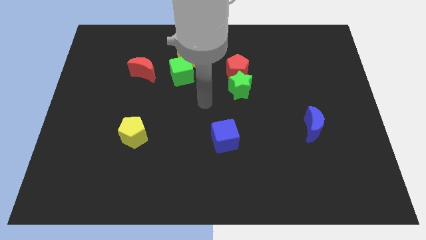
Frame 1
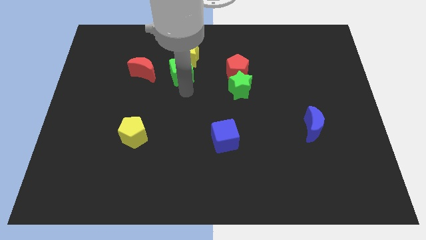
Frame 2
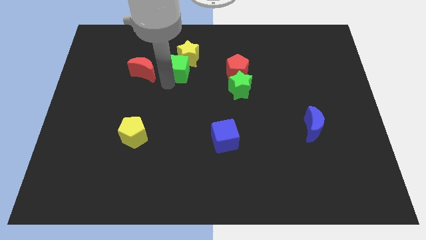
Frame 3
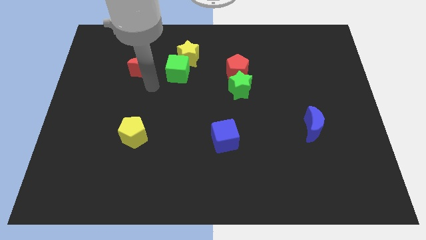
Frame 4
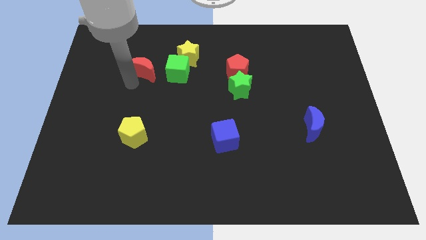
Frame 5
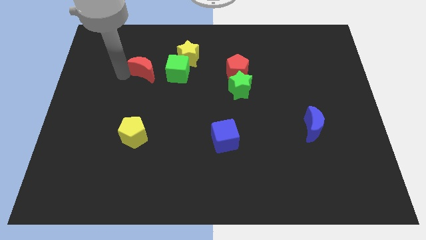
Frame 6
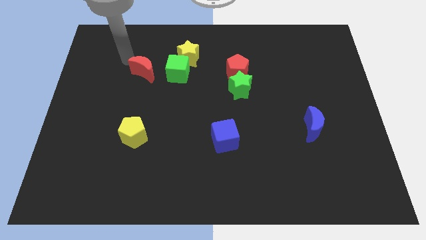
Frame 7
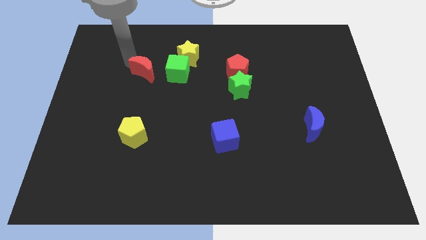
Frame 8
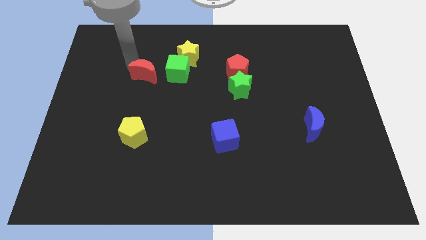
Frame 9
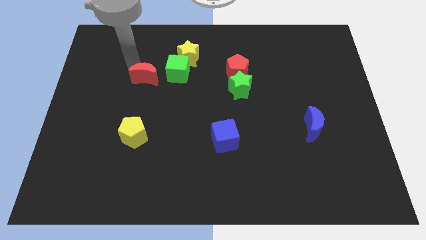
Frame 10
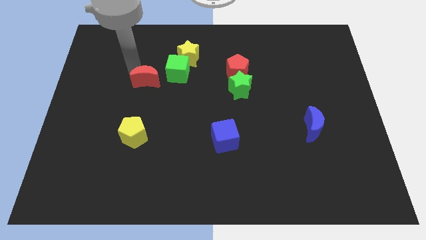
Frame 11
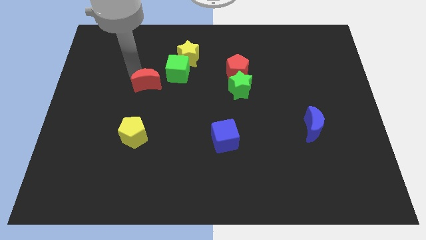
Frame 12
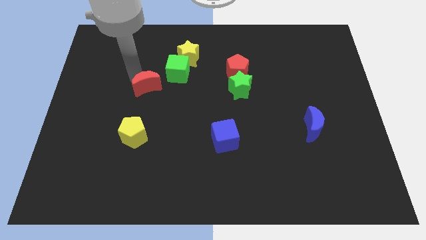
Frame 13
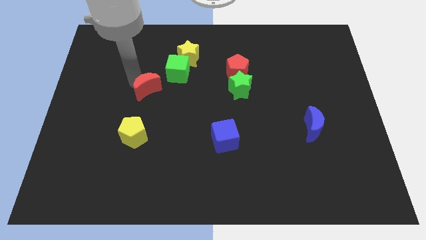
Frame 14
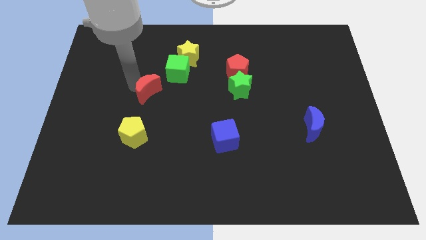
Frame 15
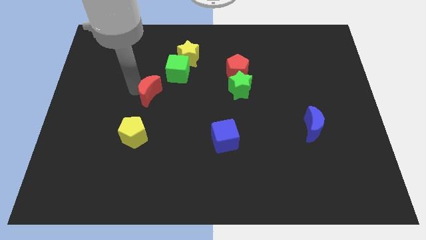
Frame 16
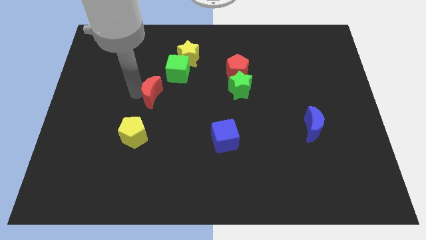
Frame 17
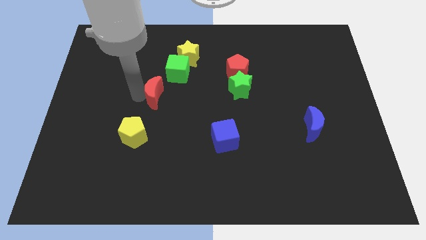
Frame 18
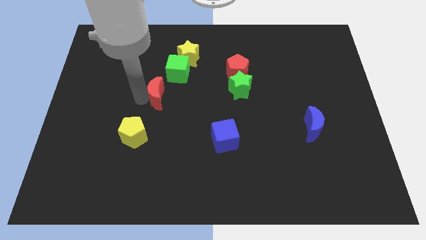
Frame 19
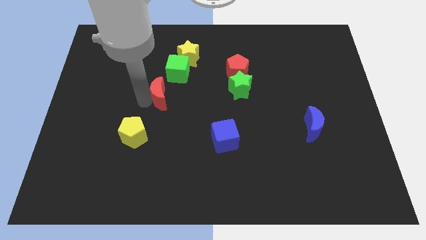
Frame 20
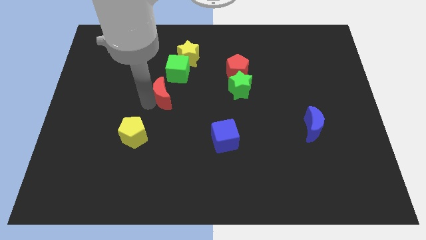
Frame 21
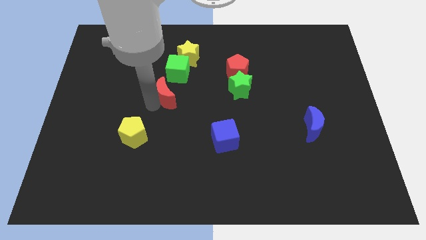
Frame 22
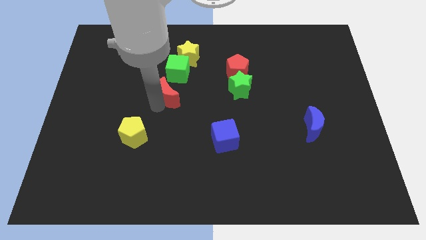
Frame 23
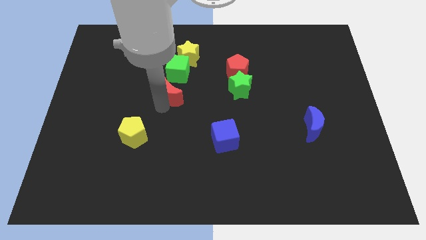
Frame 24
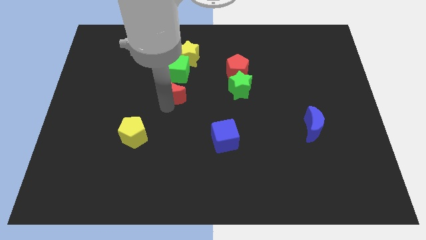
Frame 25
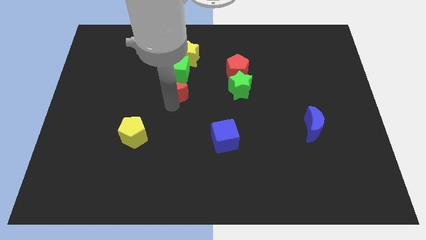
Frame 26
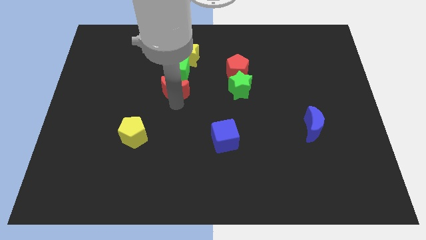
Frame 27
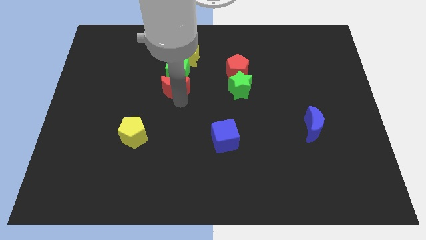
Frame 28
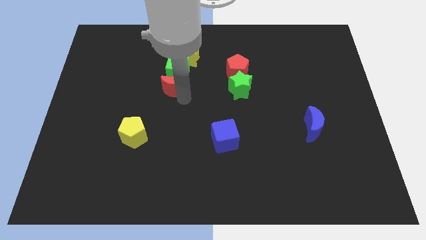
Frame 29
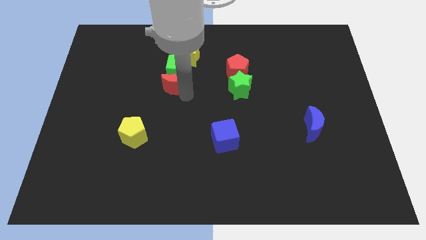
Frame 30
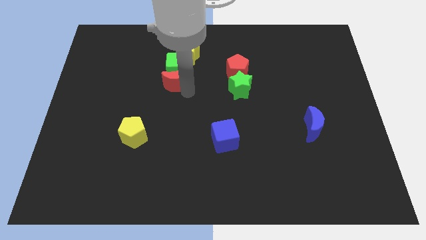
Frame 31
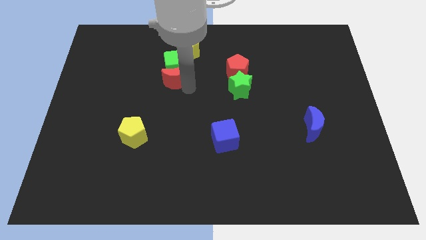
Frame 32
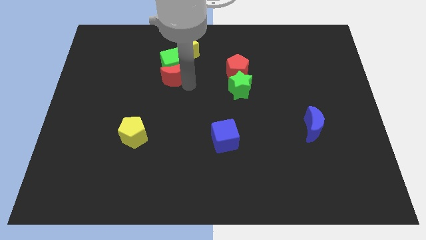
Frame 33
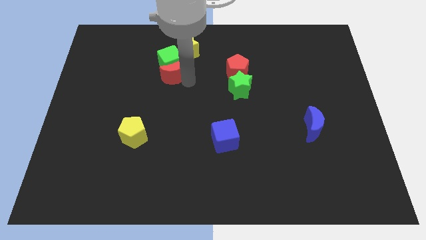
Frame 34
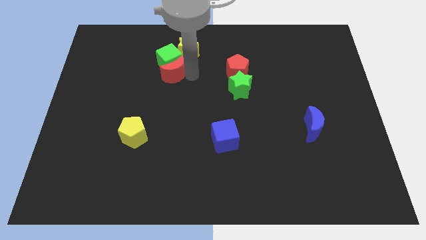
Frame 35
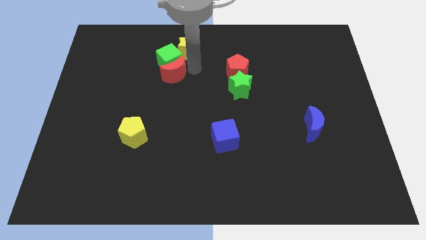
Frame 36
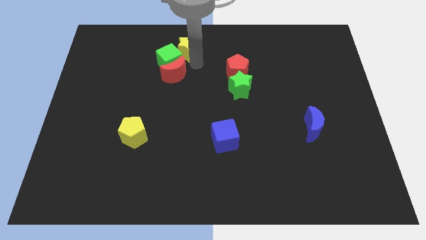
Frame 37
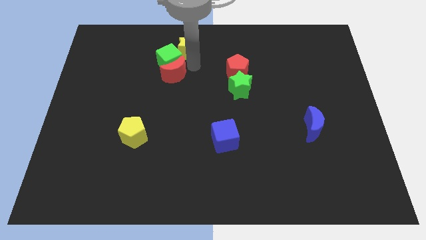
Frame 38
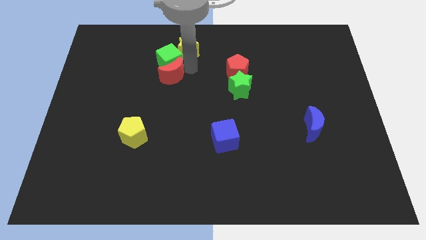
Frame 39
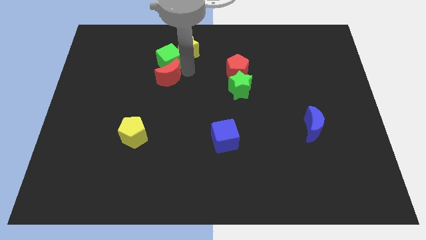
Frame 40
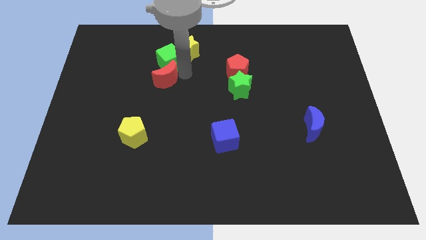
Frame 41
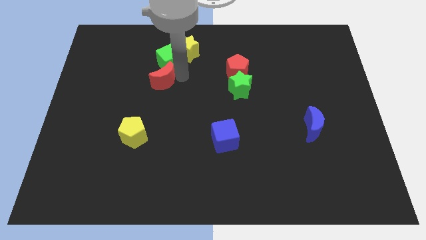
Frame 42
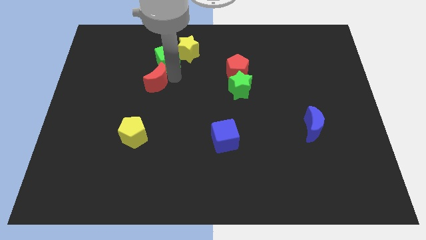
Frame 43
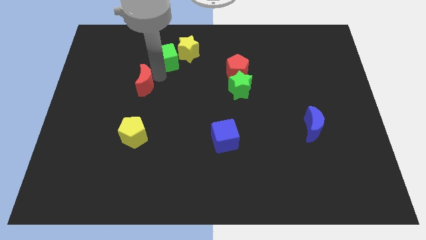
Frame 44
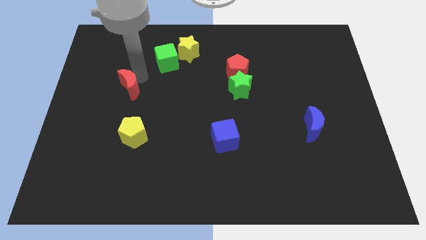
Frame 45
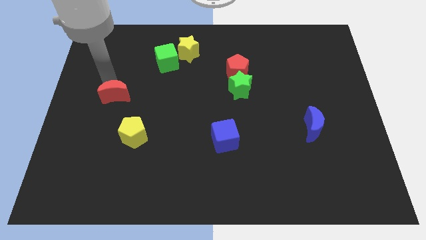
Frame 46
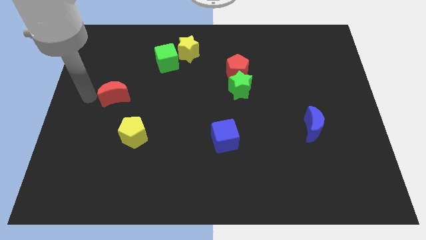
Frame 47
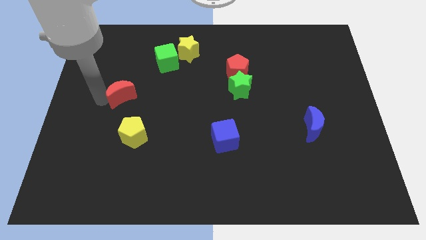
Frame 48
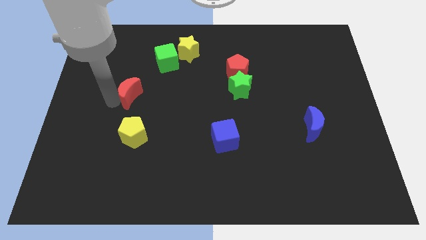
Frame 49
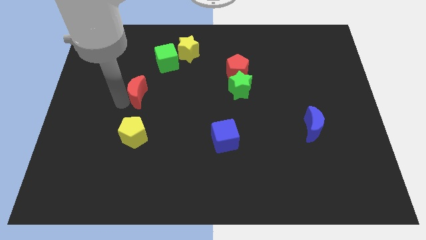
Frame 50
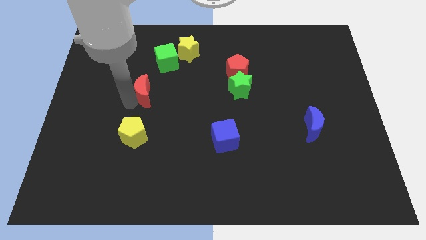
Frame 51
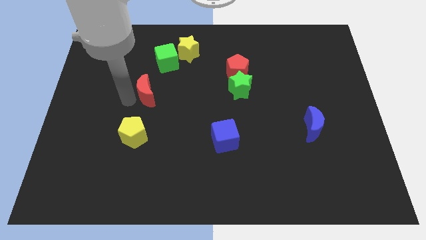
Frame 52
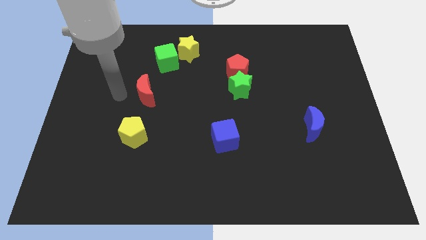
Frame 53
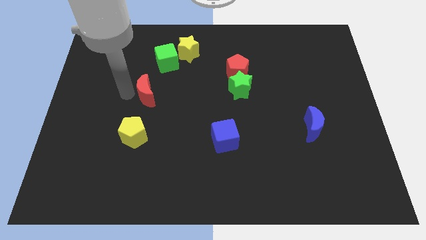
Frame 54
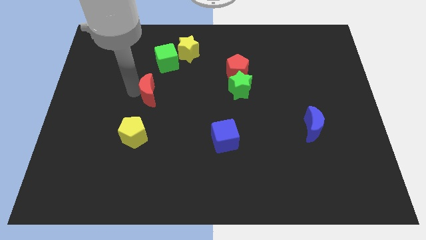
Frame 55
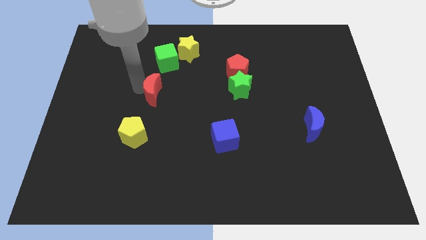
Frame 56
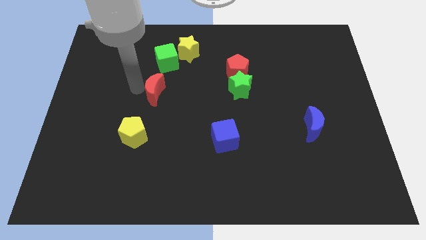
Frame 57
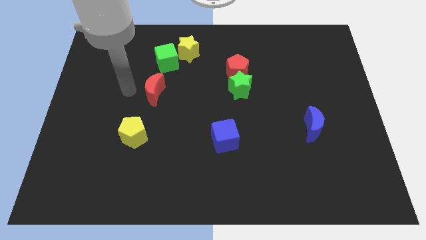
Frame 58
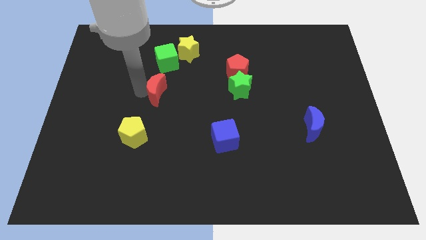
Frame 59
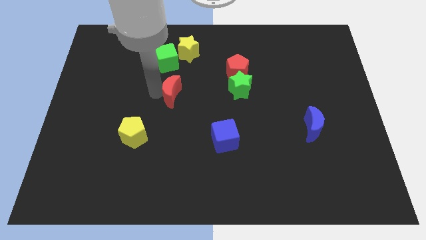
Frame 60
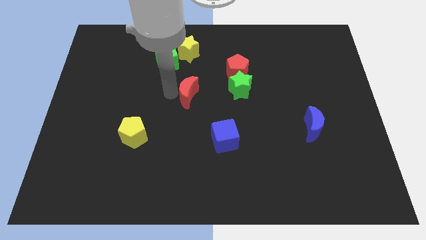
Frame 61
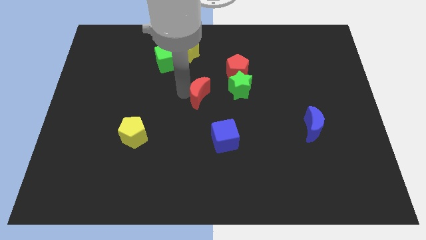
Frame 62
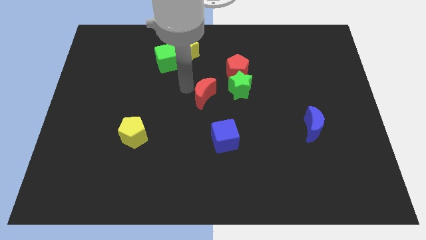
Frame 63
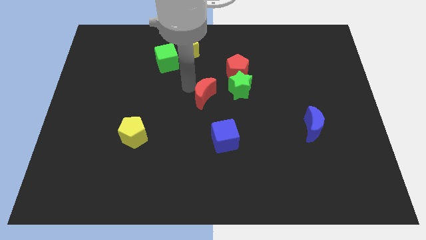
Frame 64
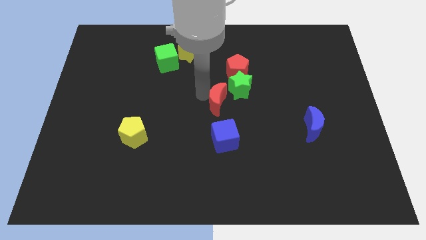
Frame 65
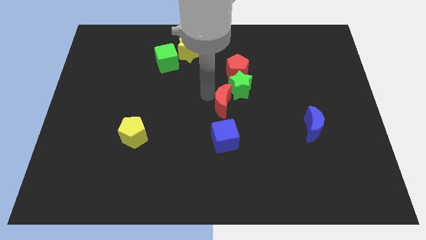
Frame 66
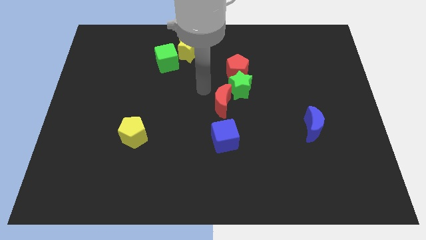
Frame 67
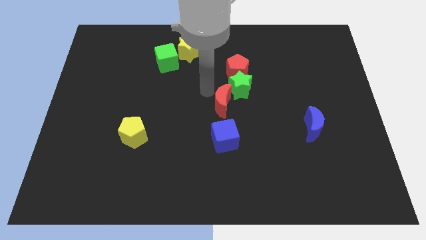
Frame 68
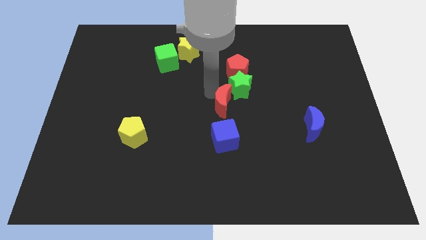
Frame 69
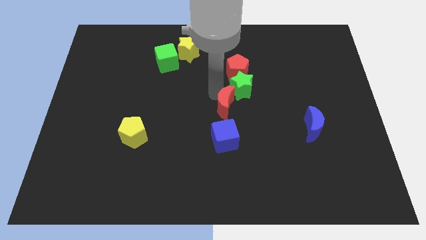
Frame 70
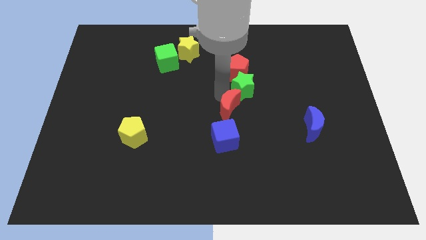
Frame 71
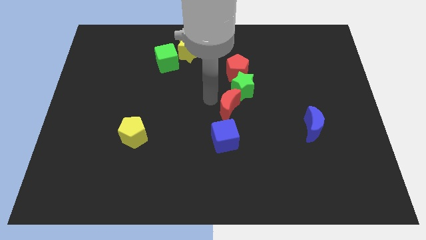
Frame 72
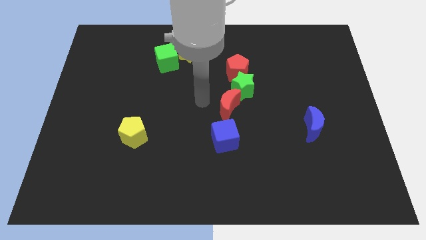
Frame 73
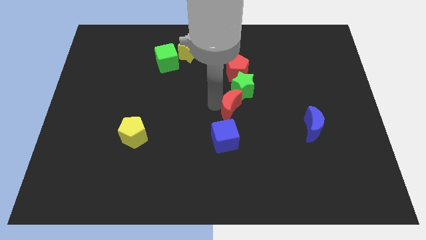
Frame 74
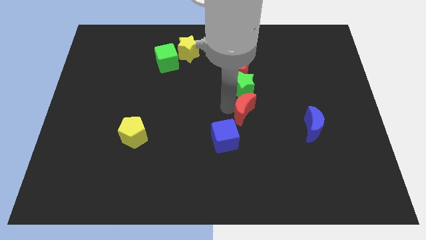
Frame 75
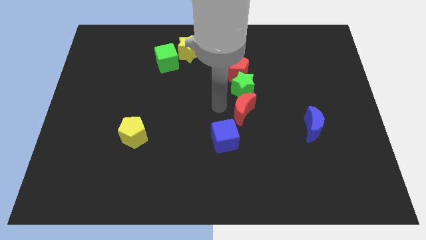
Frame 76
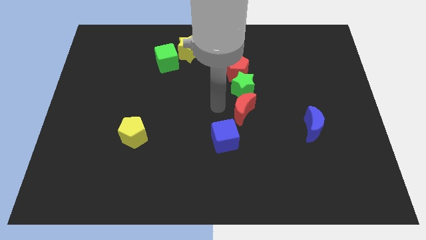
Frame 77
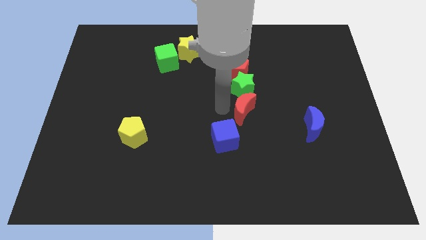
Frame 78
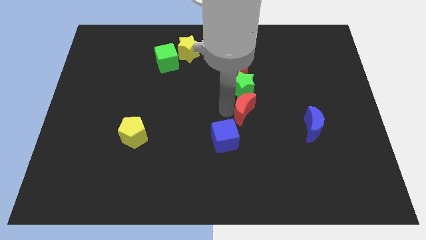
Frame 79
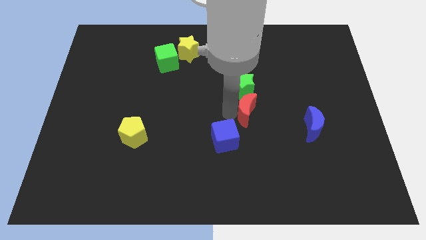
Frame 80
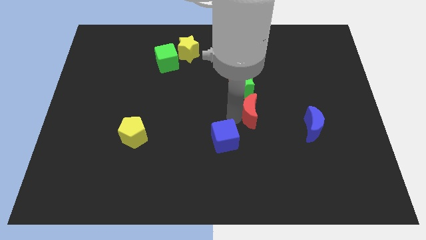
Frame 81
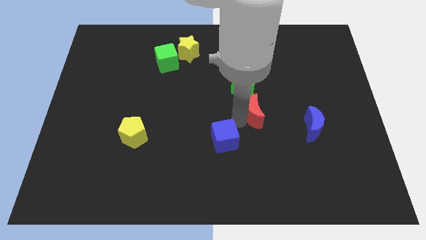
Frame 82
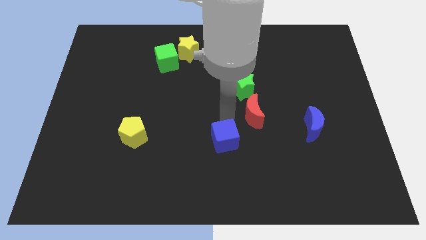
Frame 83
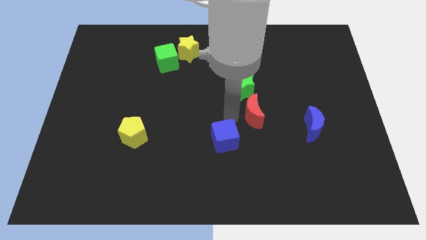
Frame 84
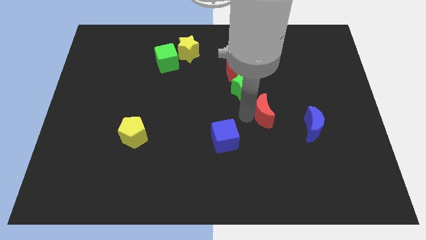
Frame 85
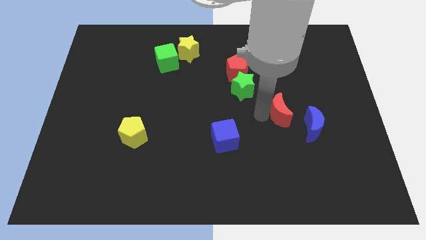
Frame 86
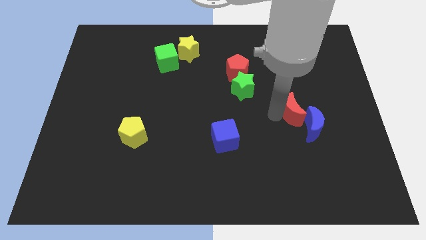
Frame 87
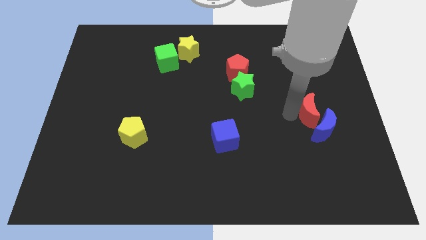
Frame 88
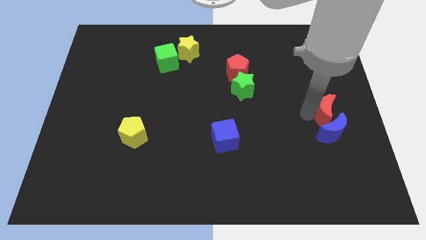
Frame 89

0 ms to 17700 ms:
slide the red moon to the top right side of the blue moon
